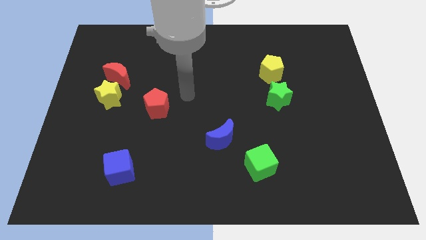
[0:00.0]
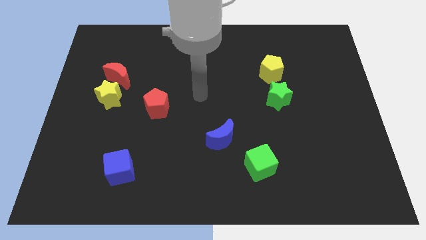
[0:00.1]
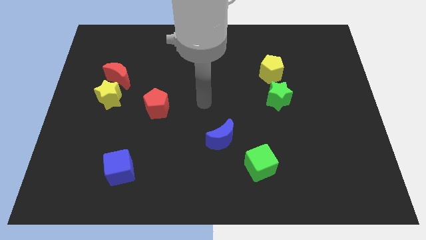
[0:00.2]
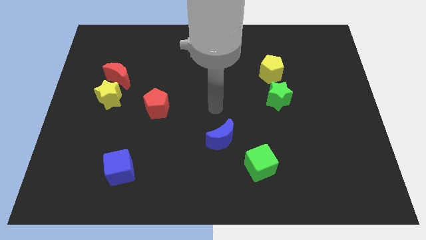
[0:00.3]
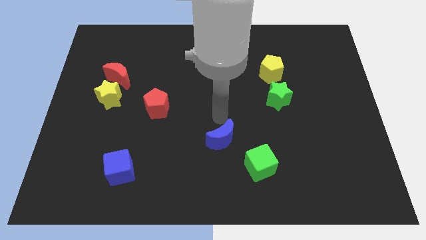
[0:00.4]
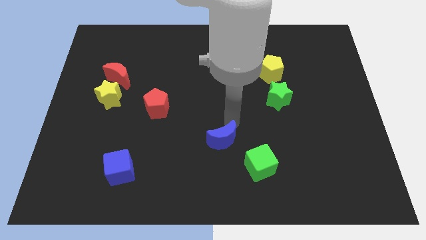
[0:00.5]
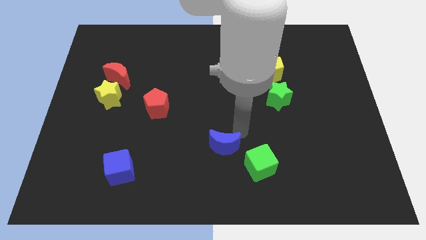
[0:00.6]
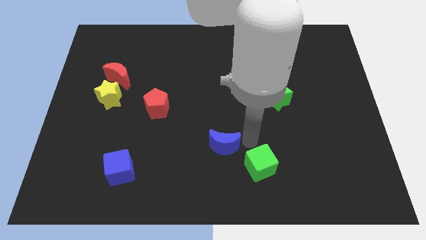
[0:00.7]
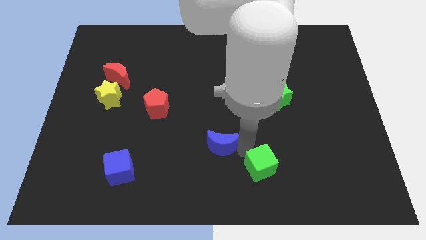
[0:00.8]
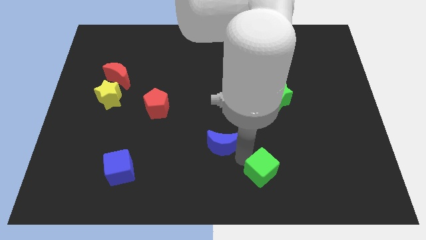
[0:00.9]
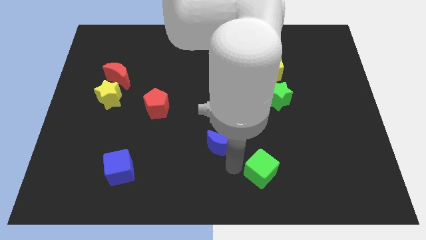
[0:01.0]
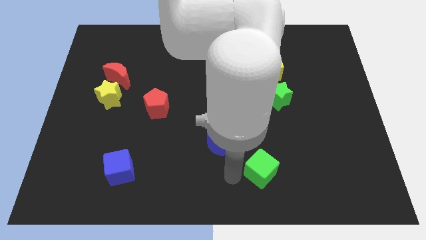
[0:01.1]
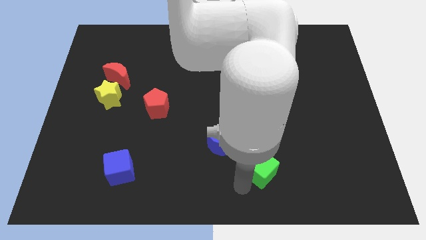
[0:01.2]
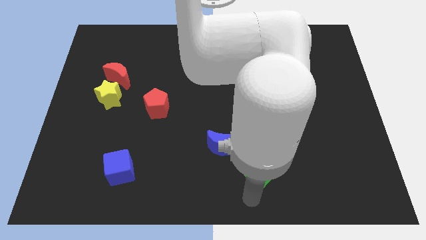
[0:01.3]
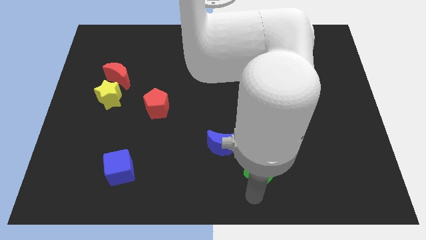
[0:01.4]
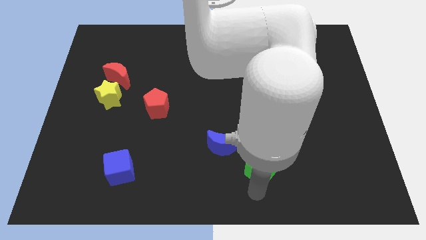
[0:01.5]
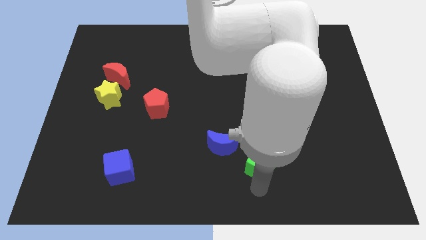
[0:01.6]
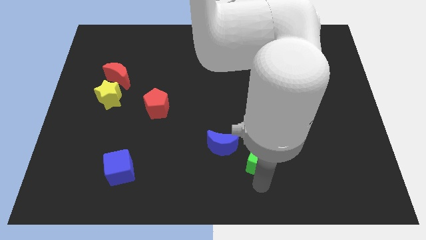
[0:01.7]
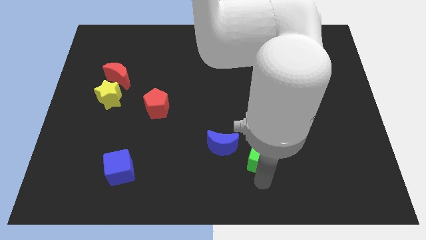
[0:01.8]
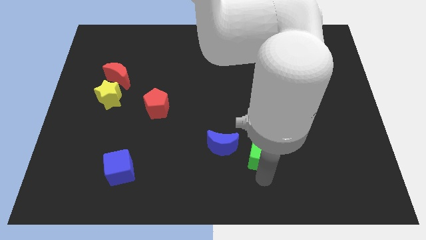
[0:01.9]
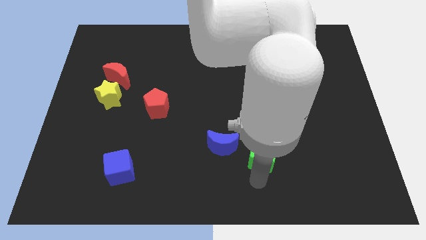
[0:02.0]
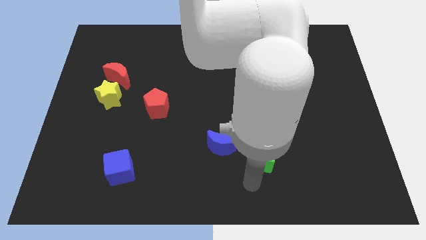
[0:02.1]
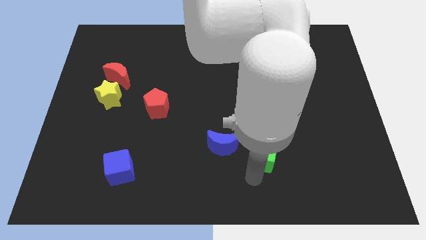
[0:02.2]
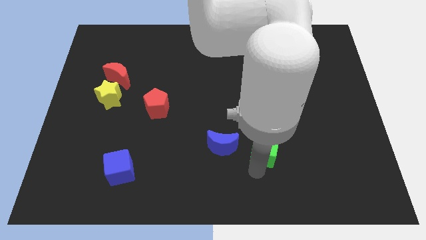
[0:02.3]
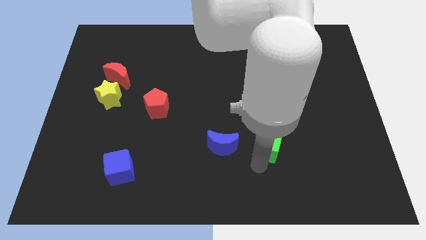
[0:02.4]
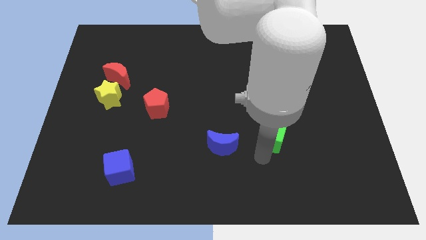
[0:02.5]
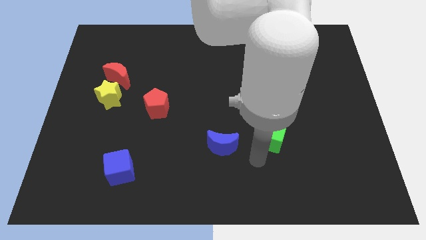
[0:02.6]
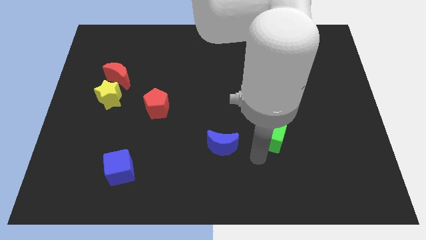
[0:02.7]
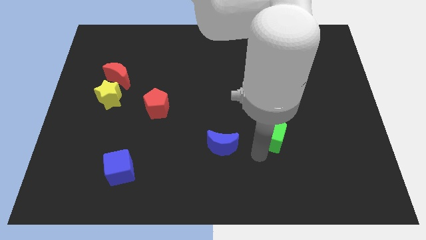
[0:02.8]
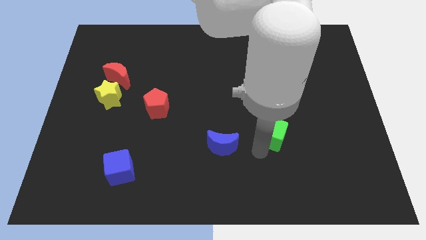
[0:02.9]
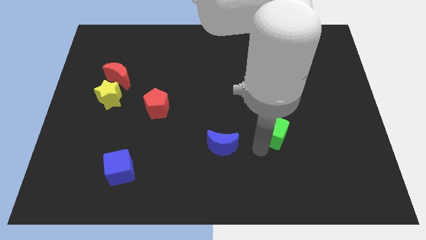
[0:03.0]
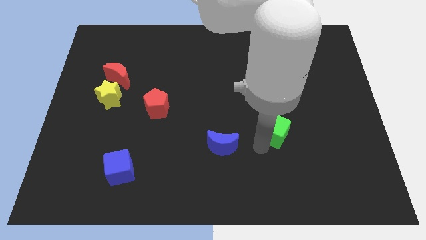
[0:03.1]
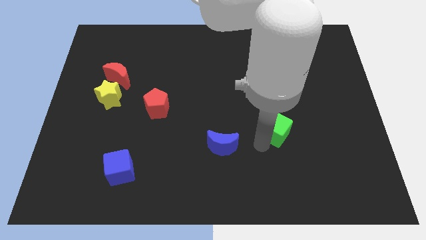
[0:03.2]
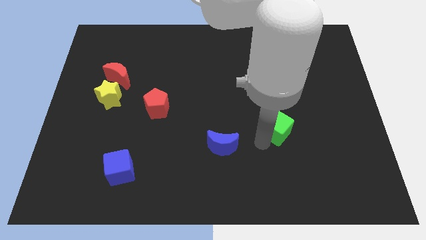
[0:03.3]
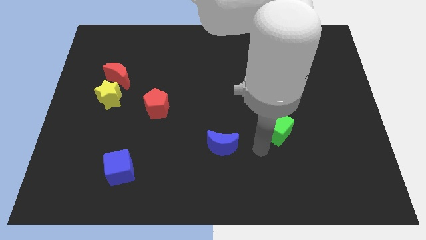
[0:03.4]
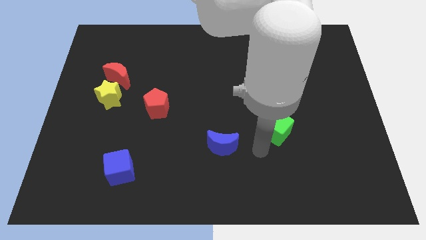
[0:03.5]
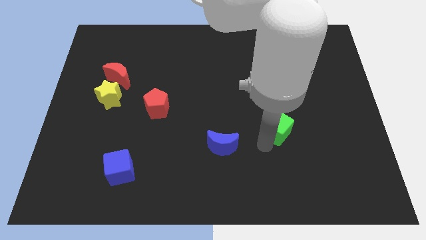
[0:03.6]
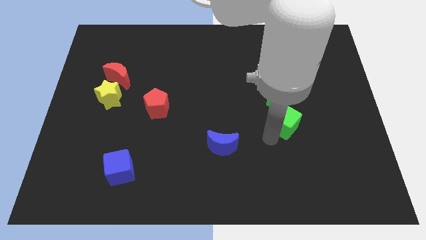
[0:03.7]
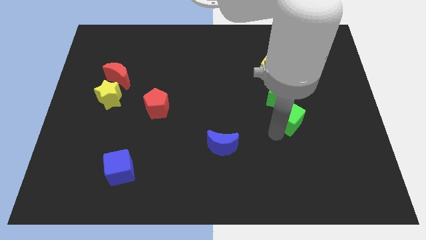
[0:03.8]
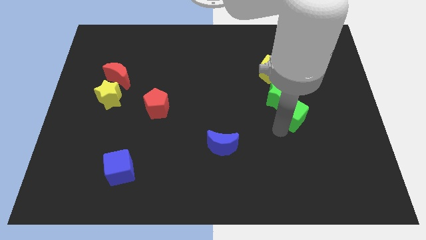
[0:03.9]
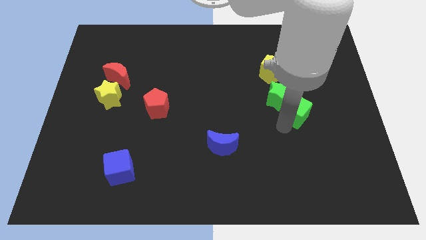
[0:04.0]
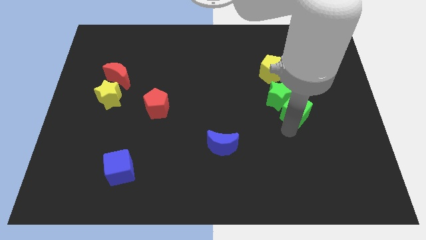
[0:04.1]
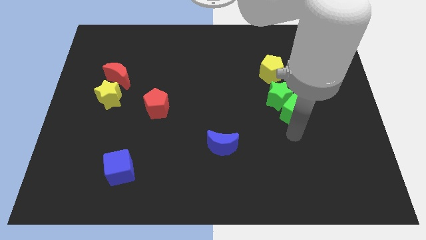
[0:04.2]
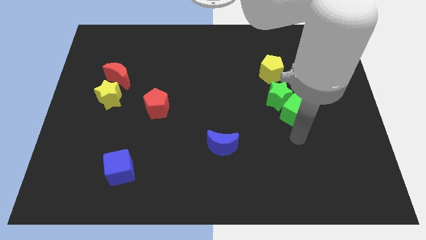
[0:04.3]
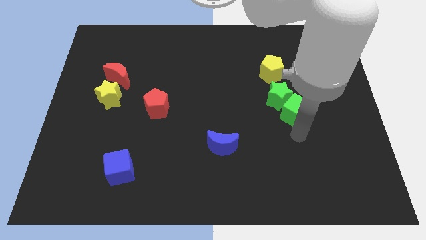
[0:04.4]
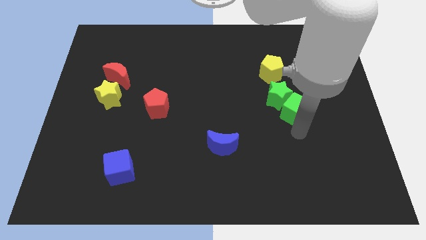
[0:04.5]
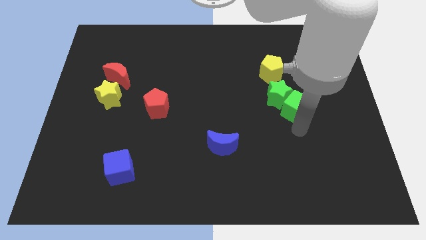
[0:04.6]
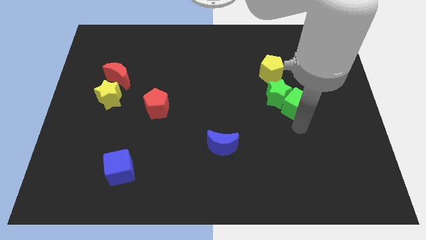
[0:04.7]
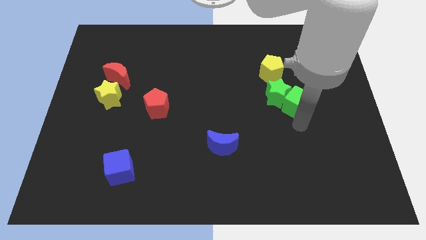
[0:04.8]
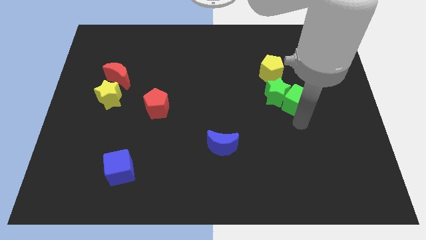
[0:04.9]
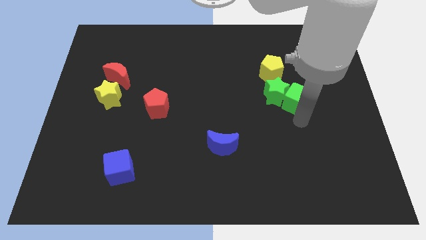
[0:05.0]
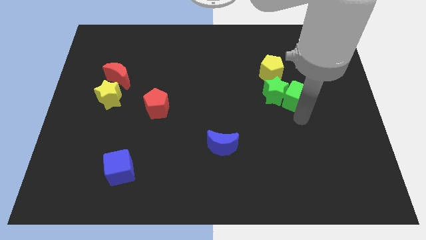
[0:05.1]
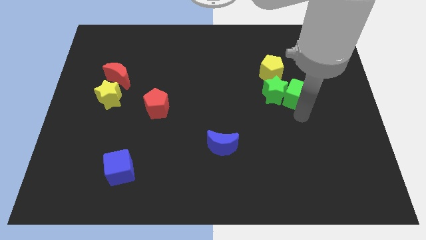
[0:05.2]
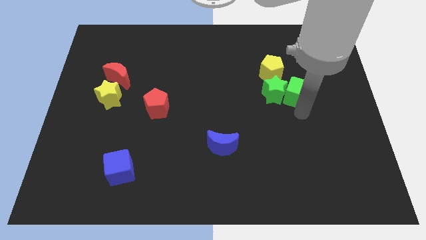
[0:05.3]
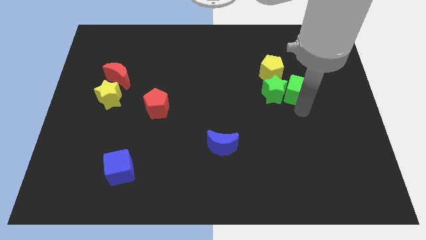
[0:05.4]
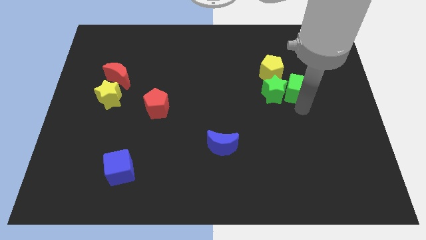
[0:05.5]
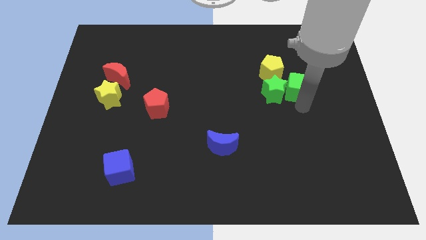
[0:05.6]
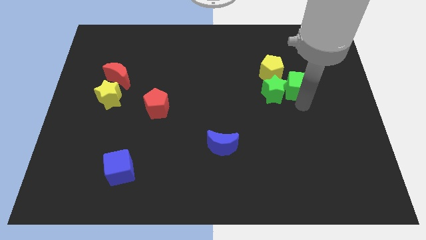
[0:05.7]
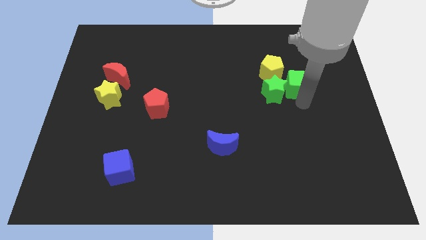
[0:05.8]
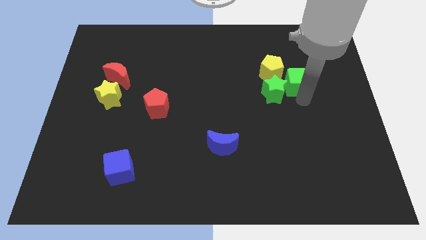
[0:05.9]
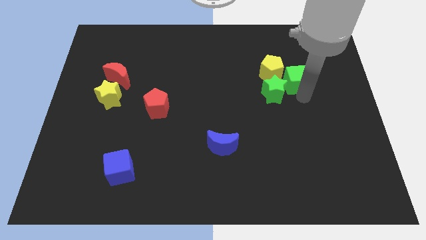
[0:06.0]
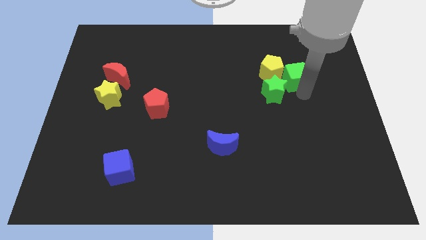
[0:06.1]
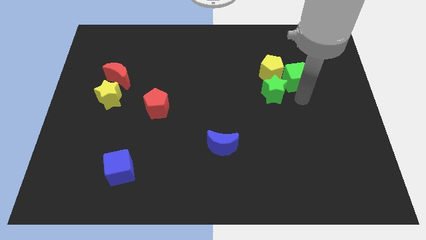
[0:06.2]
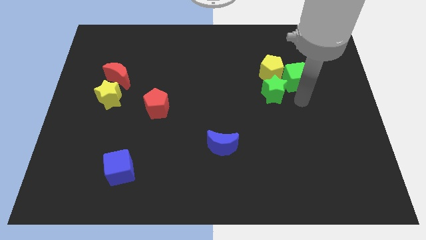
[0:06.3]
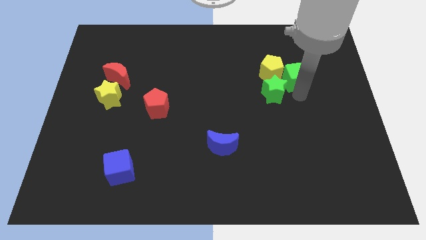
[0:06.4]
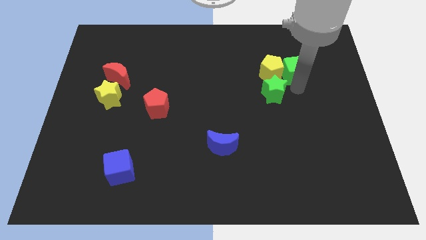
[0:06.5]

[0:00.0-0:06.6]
push the green cube to the top right of the yellow pentagon

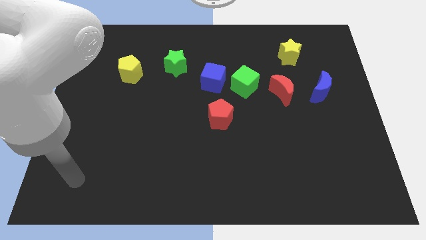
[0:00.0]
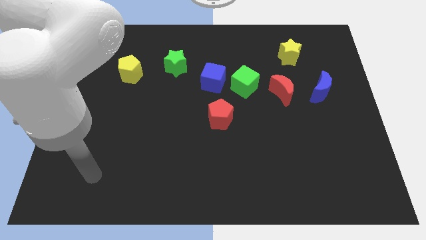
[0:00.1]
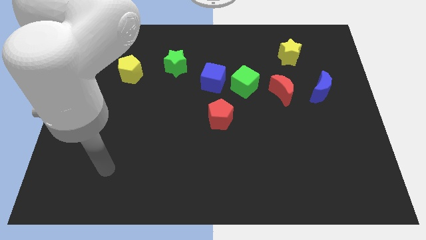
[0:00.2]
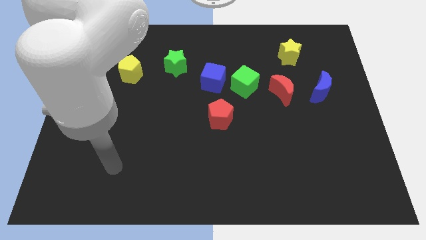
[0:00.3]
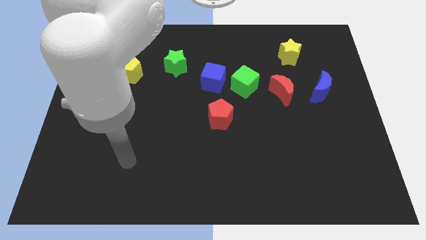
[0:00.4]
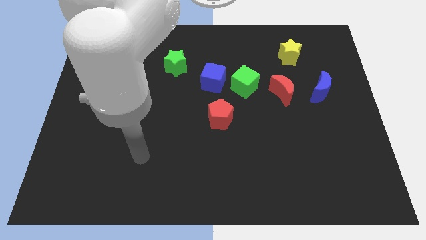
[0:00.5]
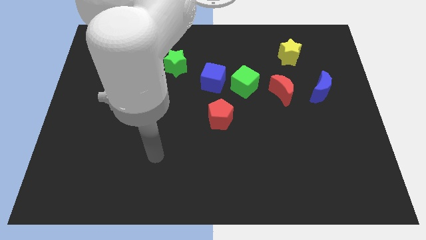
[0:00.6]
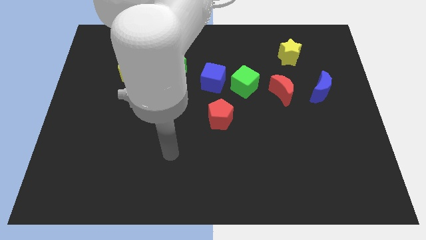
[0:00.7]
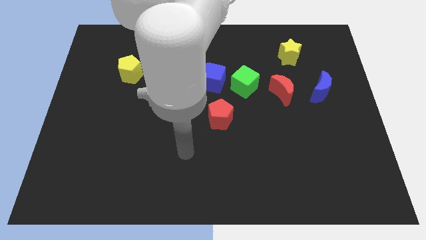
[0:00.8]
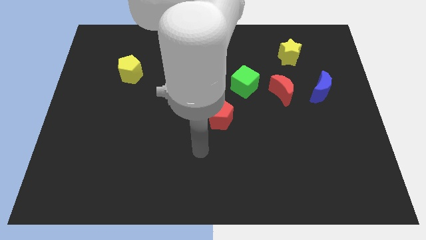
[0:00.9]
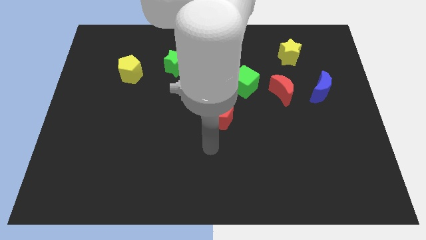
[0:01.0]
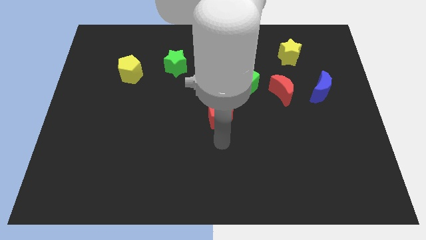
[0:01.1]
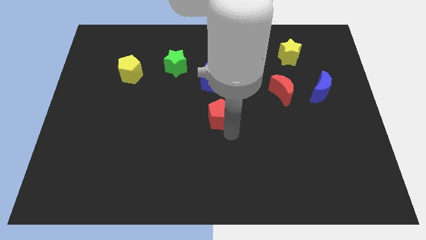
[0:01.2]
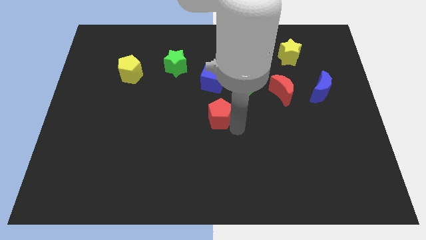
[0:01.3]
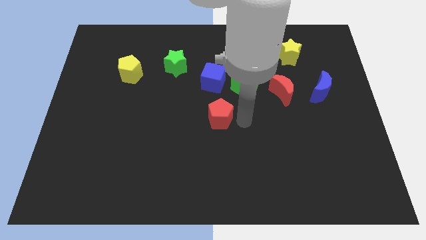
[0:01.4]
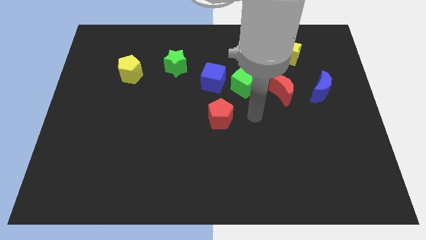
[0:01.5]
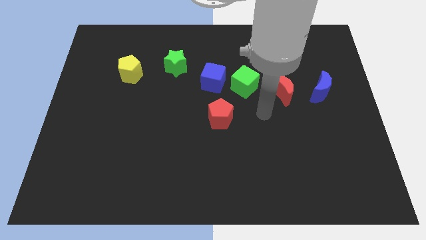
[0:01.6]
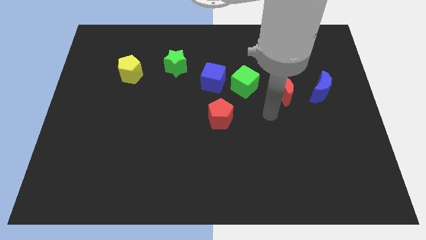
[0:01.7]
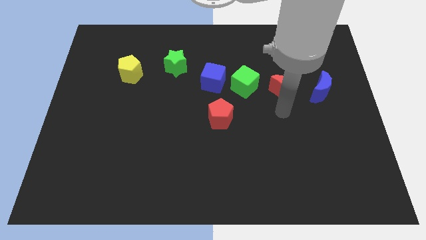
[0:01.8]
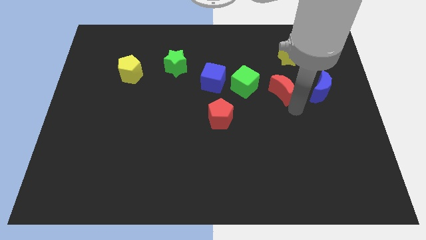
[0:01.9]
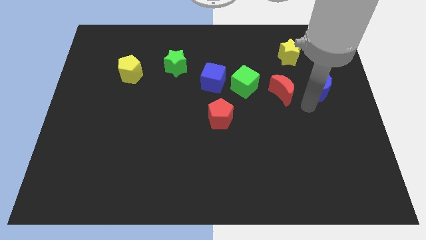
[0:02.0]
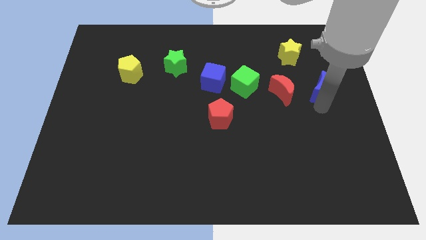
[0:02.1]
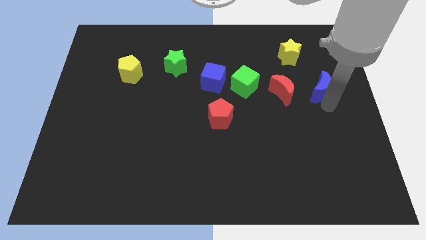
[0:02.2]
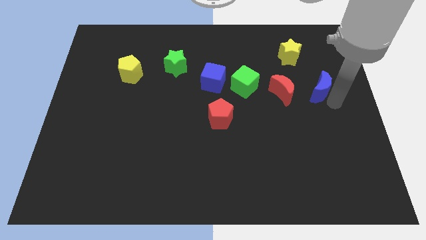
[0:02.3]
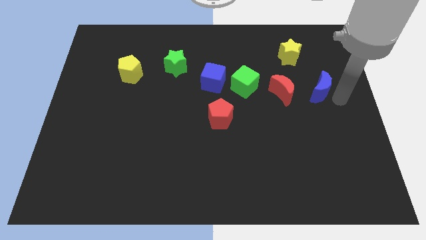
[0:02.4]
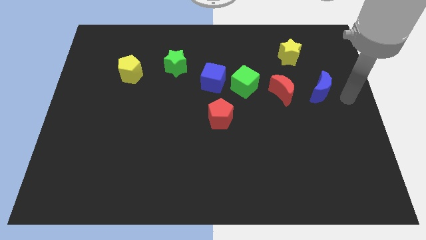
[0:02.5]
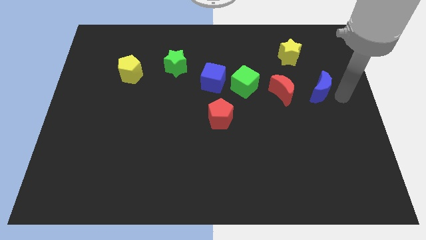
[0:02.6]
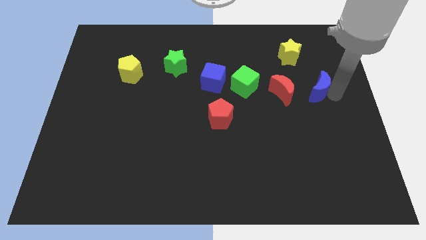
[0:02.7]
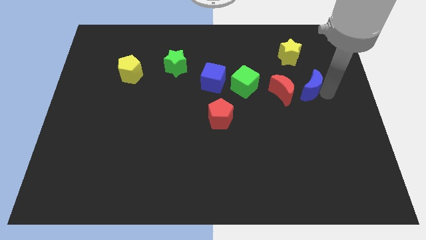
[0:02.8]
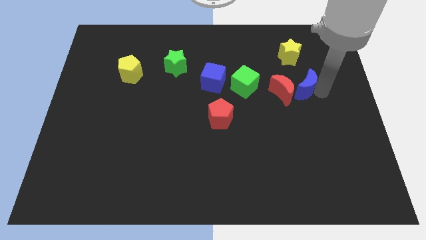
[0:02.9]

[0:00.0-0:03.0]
put the blue moon to the right side of the green cube
